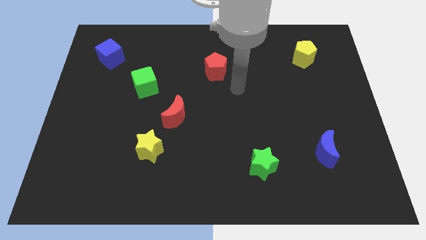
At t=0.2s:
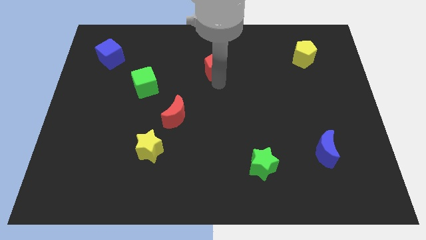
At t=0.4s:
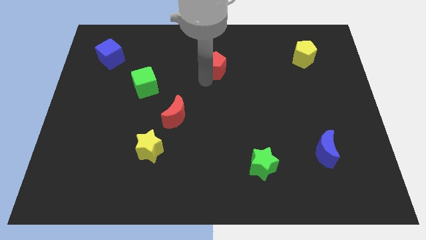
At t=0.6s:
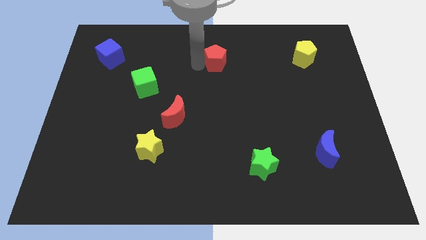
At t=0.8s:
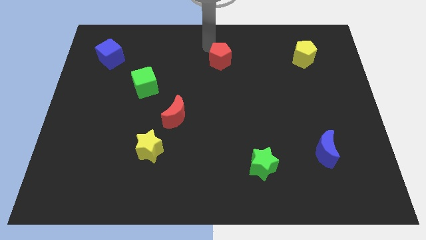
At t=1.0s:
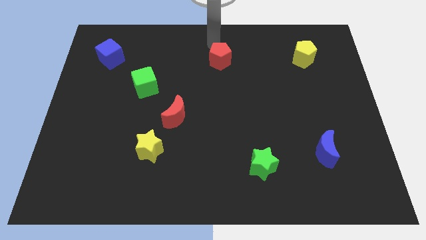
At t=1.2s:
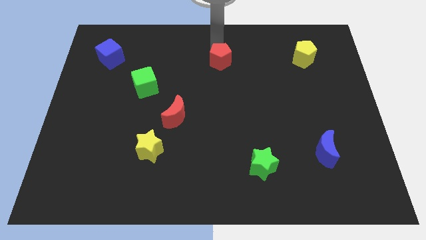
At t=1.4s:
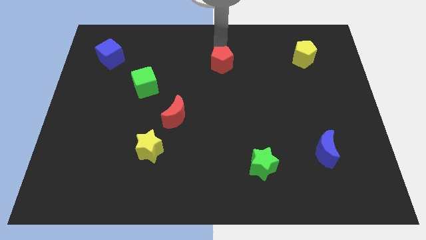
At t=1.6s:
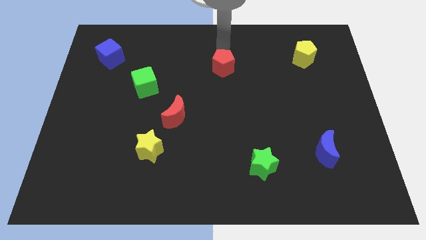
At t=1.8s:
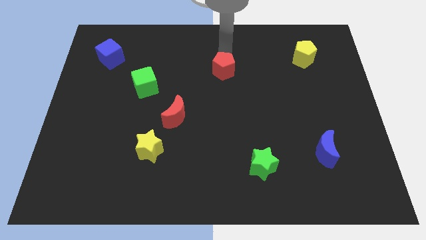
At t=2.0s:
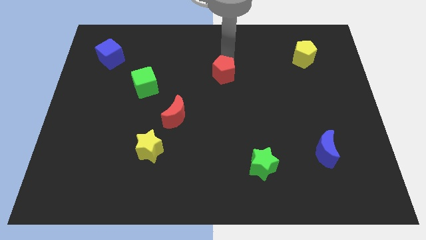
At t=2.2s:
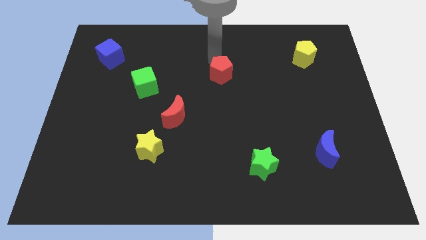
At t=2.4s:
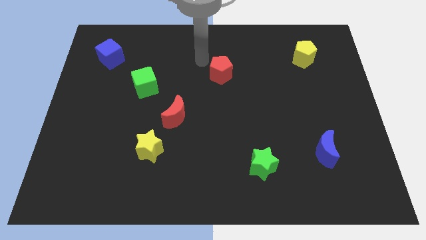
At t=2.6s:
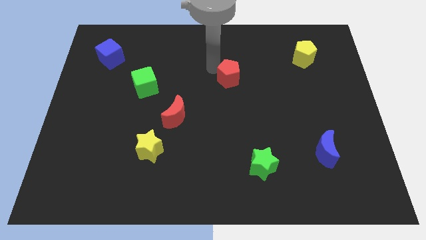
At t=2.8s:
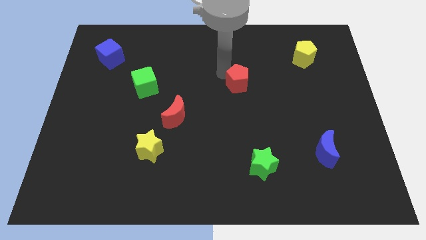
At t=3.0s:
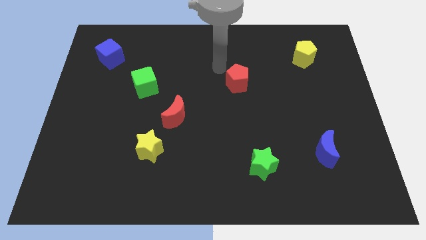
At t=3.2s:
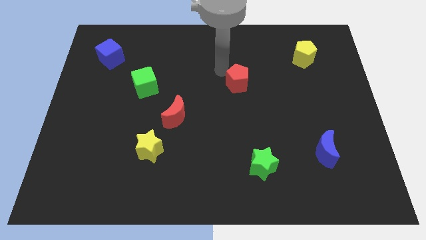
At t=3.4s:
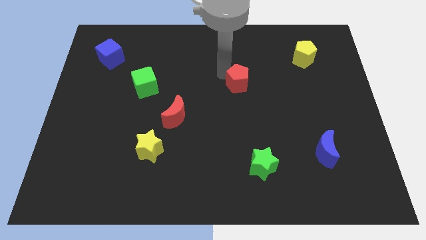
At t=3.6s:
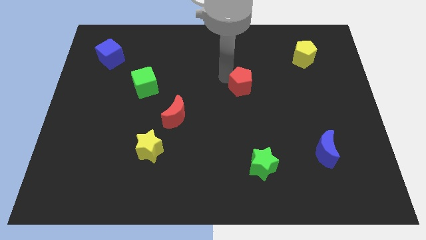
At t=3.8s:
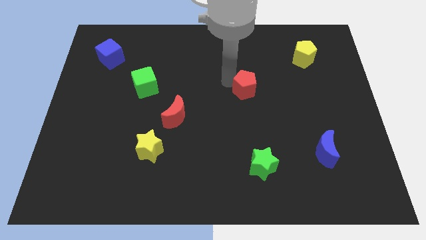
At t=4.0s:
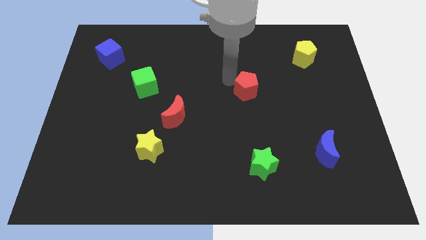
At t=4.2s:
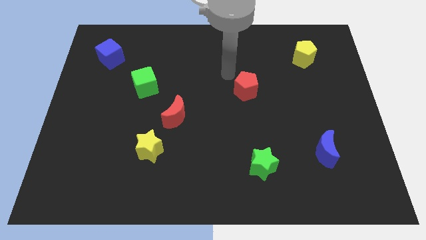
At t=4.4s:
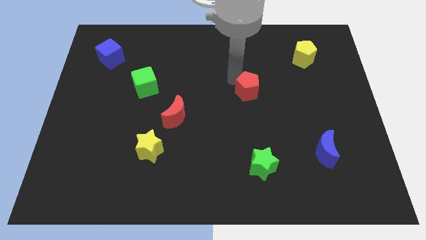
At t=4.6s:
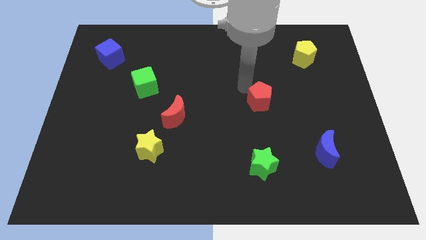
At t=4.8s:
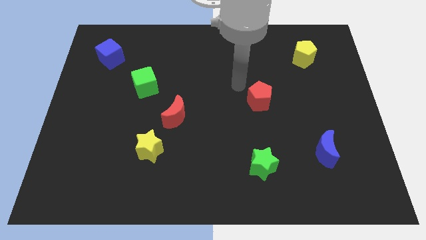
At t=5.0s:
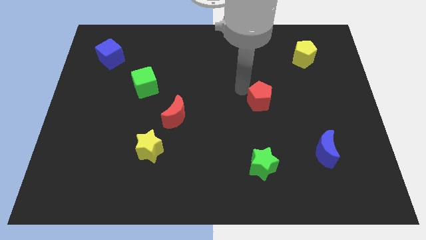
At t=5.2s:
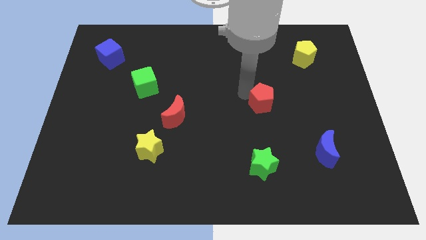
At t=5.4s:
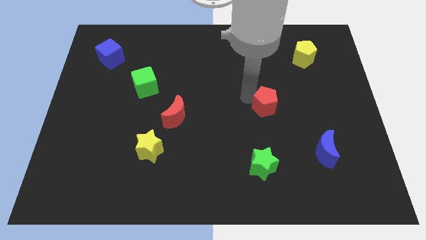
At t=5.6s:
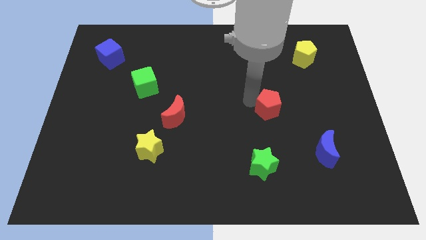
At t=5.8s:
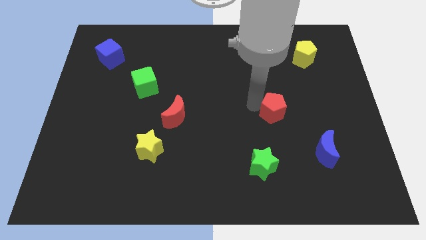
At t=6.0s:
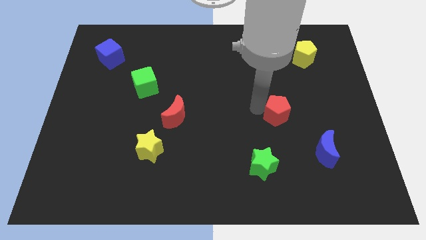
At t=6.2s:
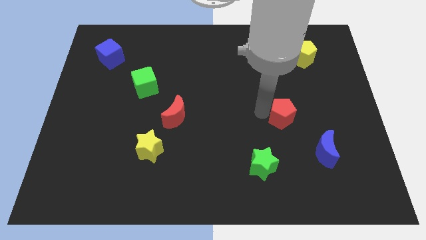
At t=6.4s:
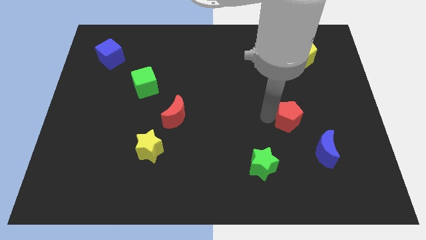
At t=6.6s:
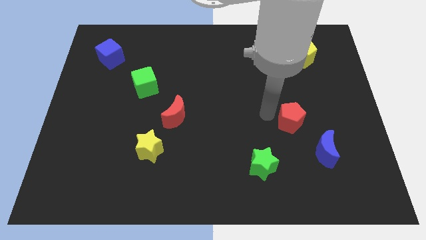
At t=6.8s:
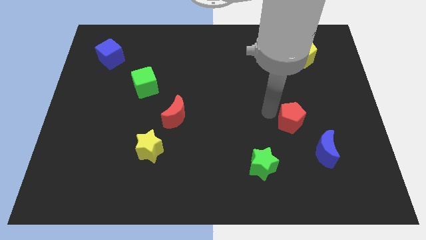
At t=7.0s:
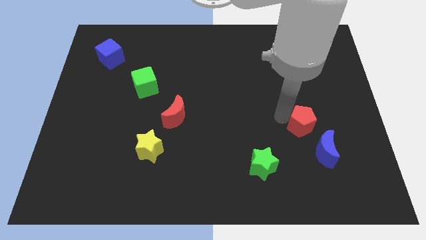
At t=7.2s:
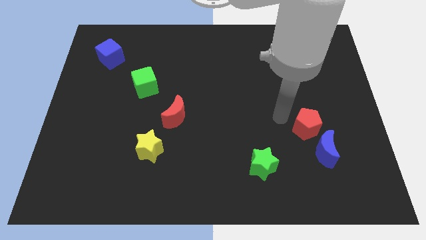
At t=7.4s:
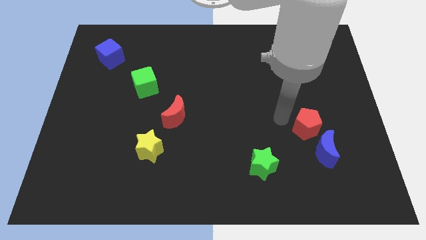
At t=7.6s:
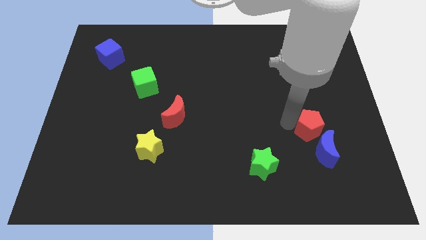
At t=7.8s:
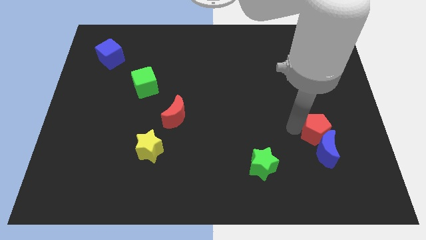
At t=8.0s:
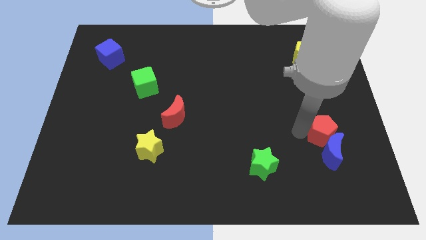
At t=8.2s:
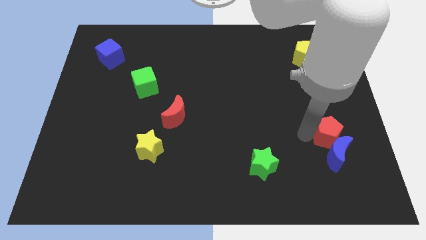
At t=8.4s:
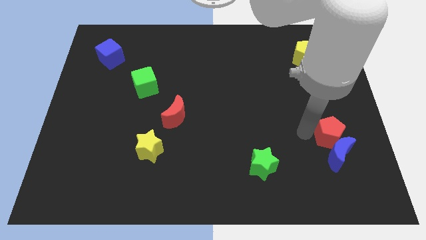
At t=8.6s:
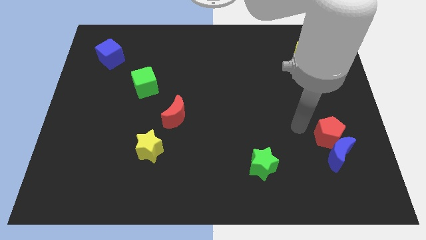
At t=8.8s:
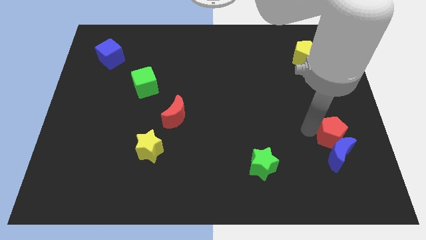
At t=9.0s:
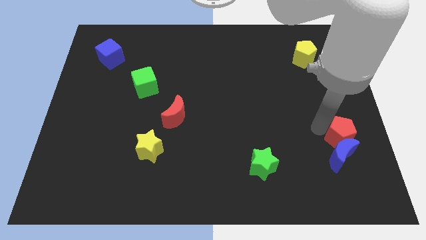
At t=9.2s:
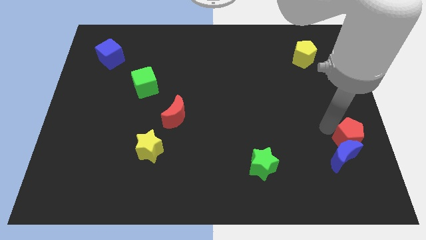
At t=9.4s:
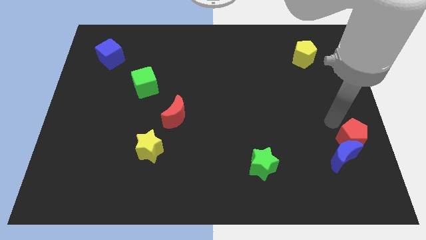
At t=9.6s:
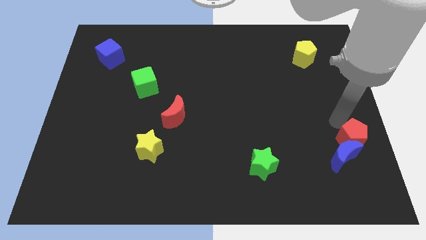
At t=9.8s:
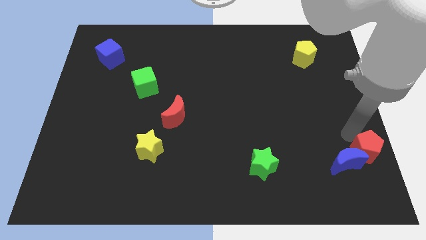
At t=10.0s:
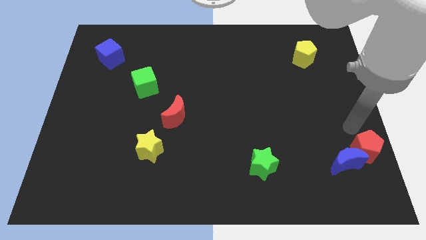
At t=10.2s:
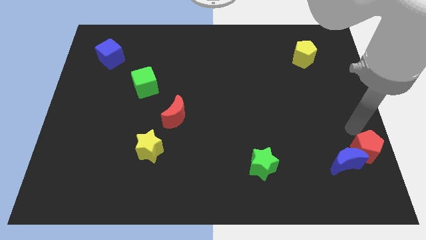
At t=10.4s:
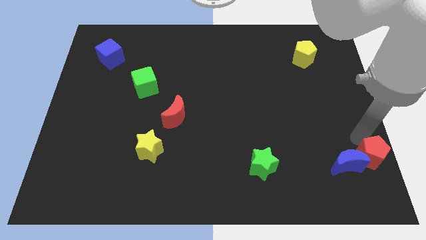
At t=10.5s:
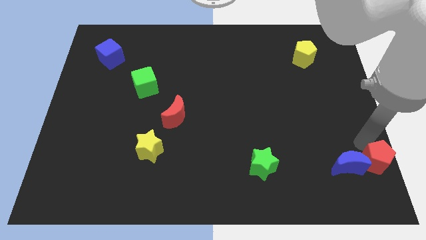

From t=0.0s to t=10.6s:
push the red pentagon to the bottom right of the board

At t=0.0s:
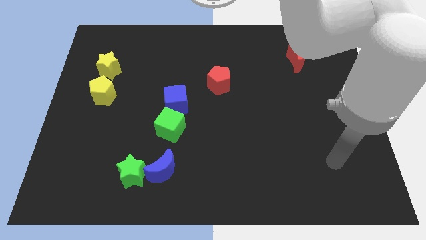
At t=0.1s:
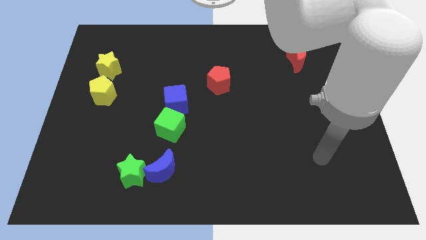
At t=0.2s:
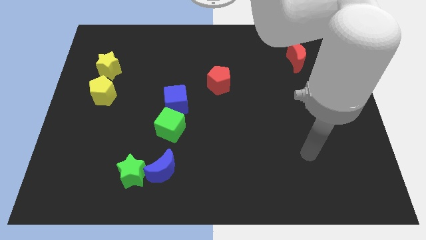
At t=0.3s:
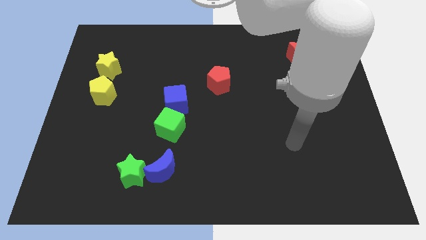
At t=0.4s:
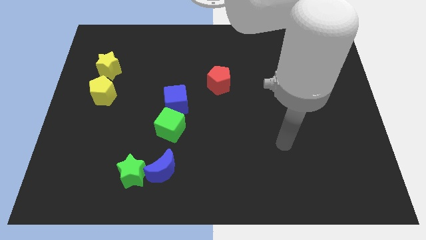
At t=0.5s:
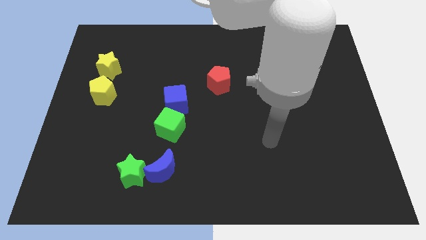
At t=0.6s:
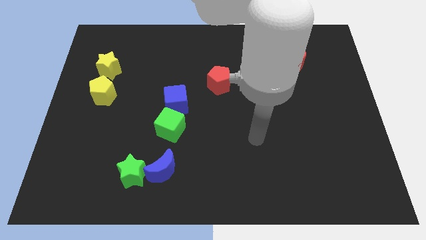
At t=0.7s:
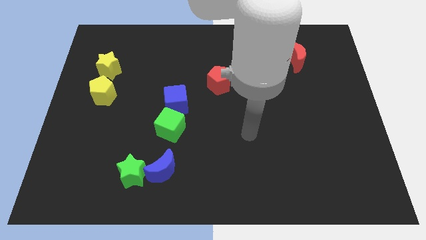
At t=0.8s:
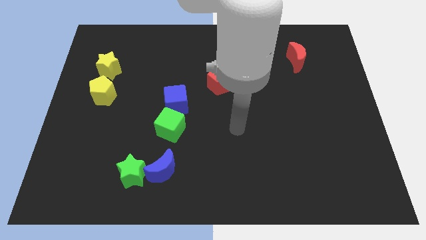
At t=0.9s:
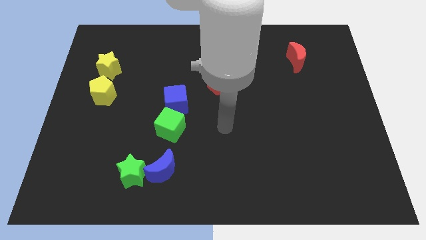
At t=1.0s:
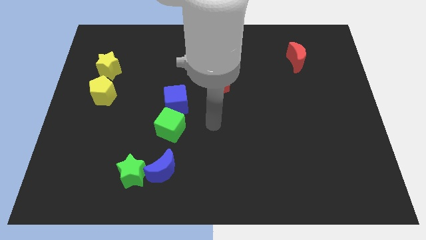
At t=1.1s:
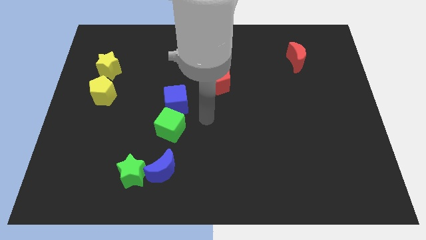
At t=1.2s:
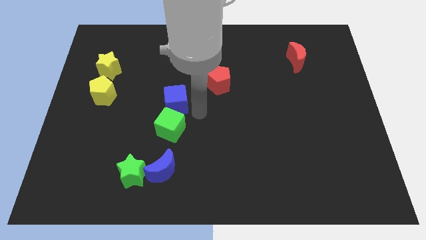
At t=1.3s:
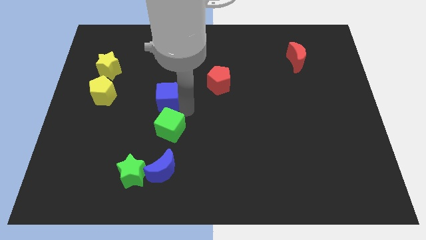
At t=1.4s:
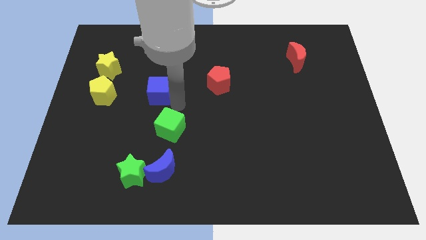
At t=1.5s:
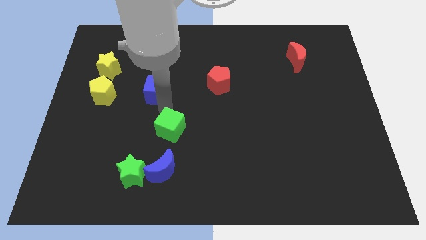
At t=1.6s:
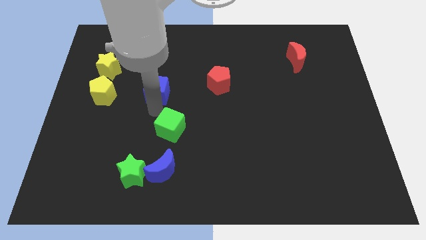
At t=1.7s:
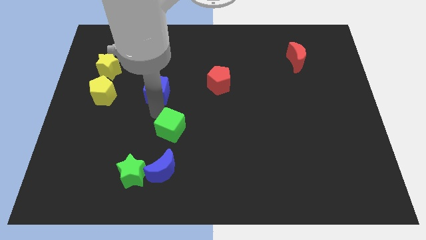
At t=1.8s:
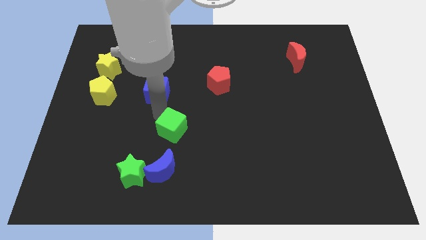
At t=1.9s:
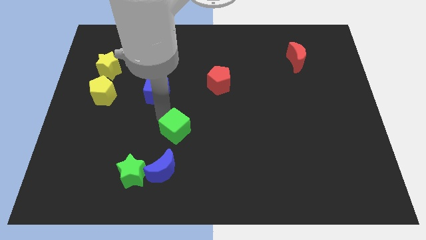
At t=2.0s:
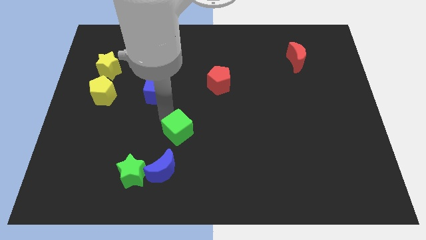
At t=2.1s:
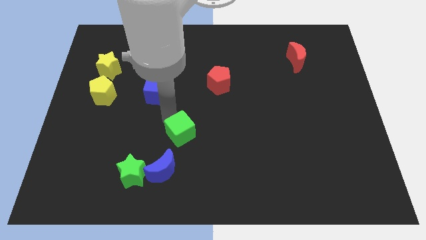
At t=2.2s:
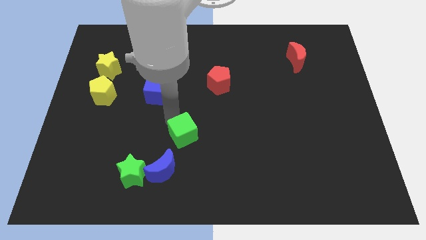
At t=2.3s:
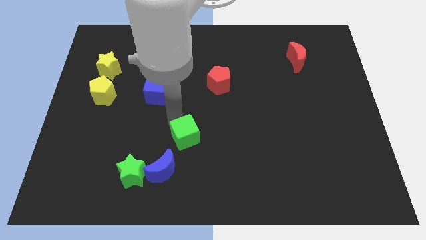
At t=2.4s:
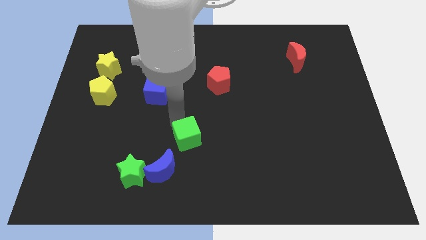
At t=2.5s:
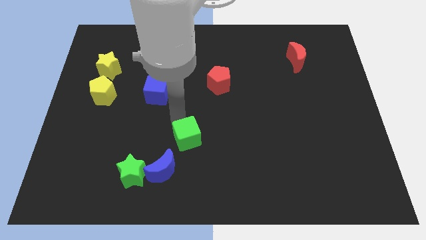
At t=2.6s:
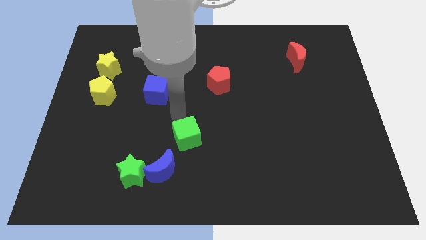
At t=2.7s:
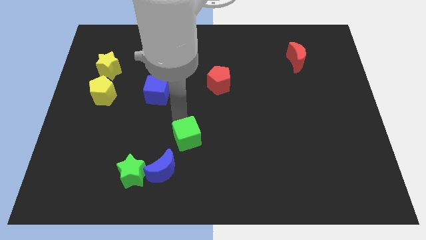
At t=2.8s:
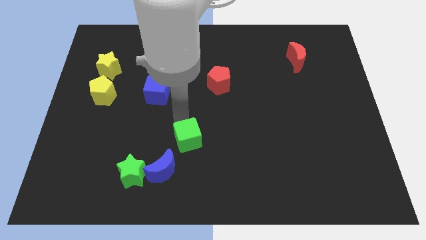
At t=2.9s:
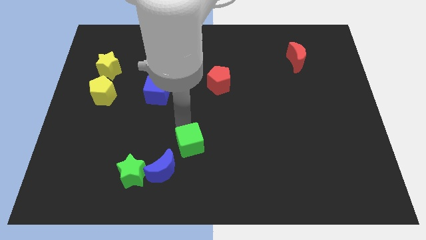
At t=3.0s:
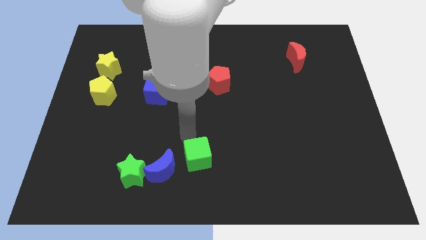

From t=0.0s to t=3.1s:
put the green cube to the bottom side
